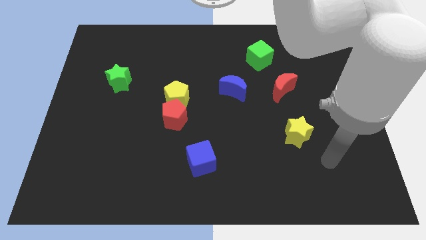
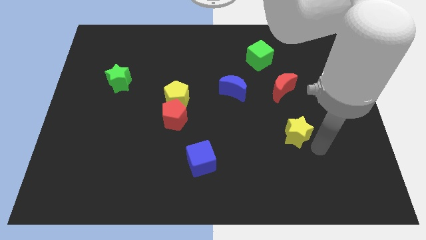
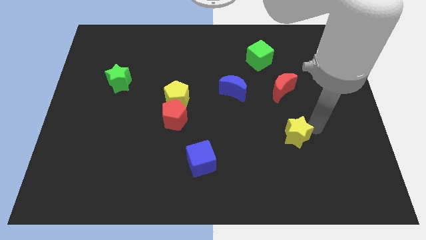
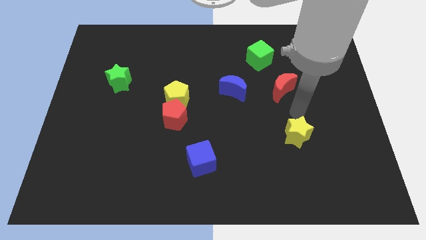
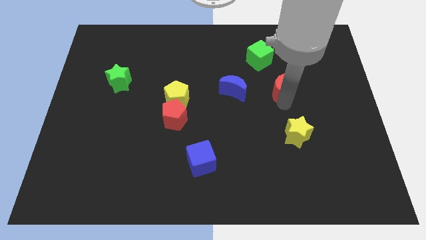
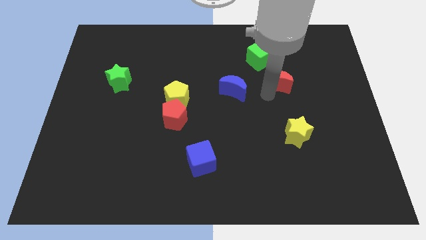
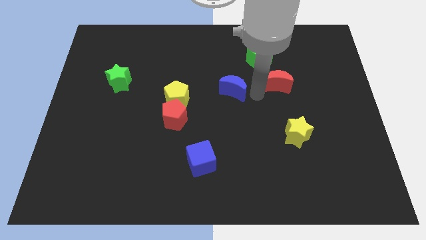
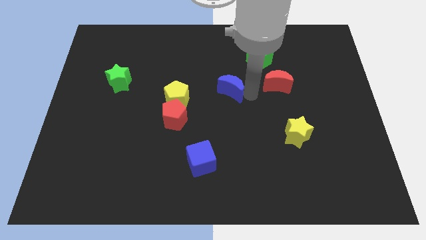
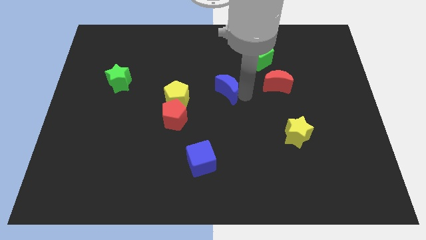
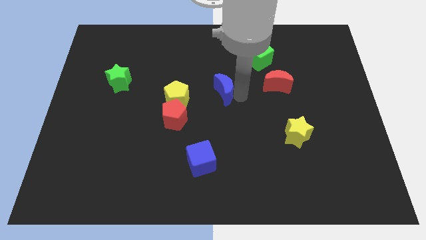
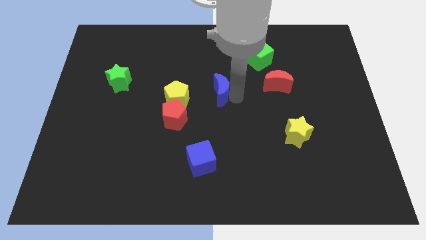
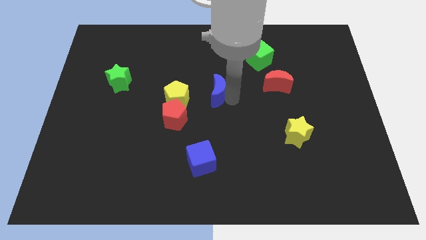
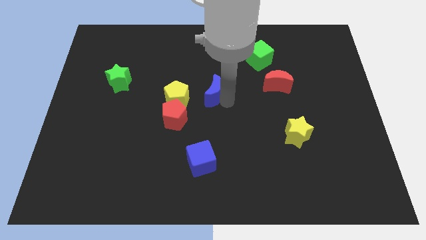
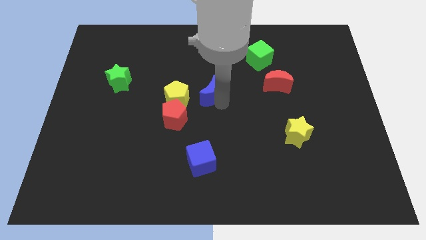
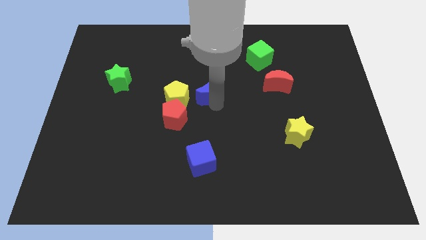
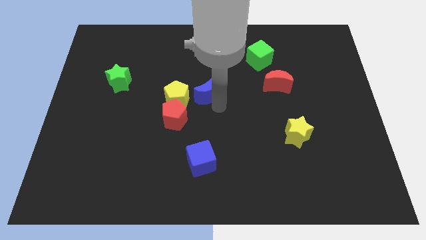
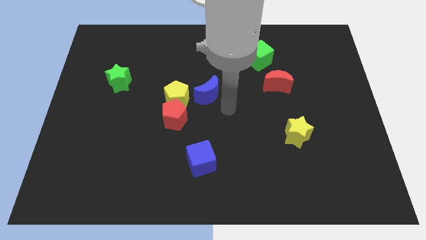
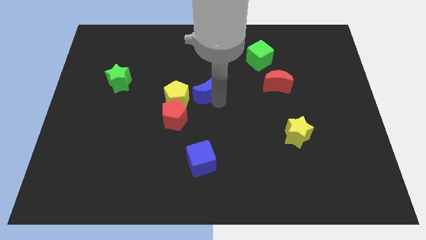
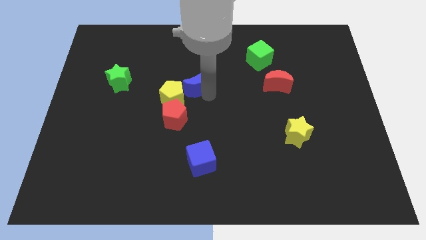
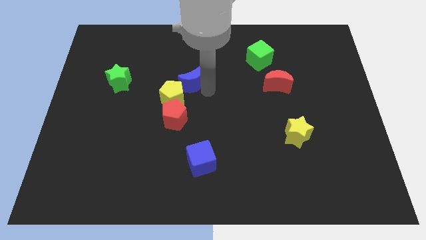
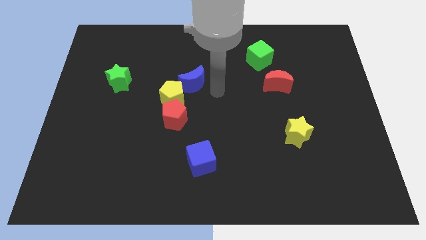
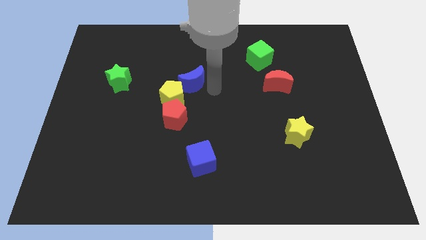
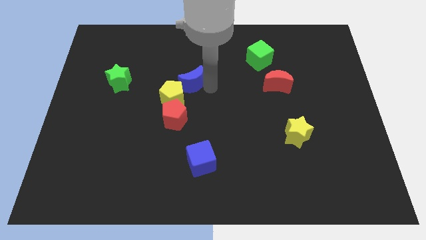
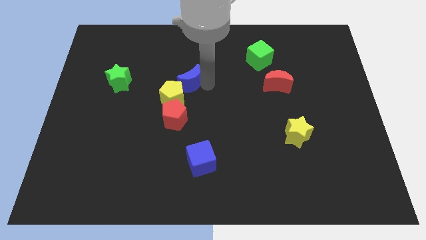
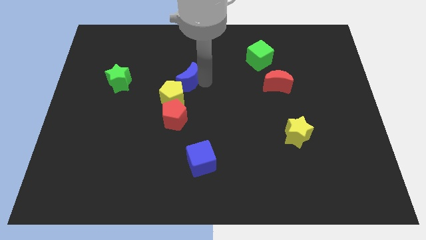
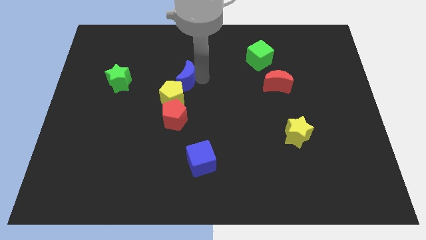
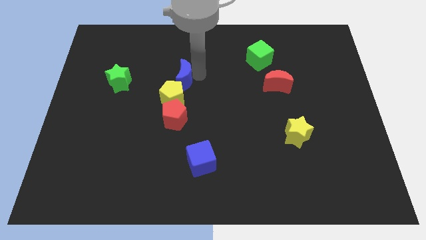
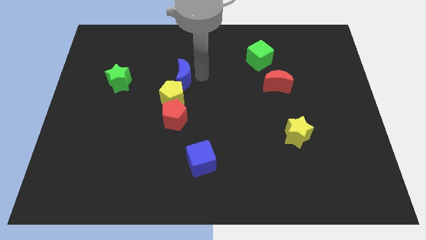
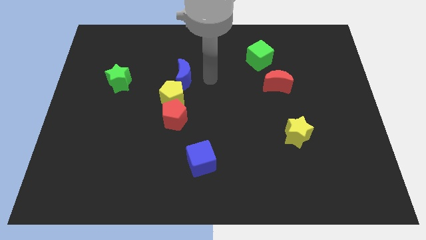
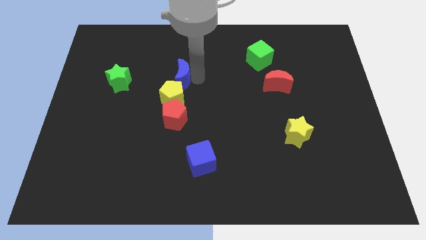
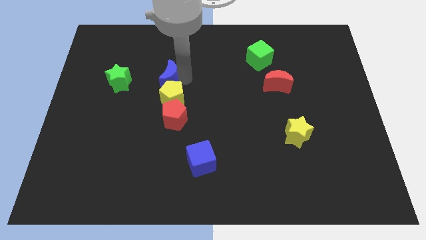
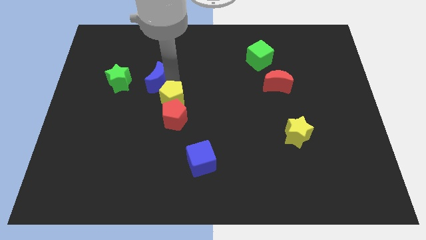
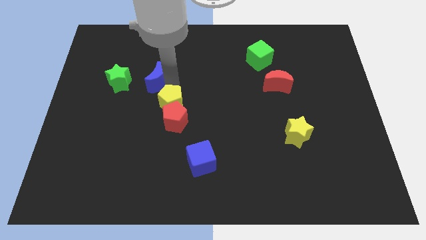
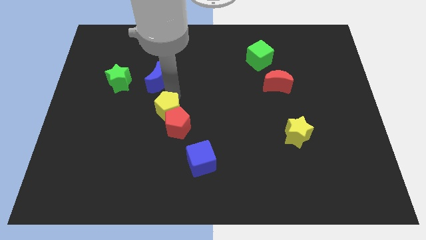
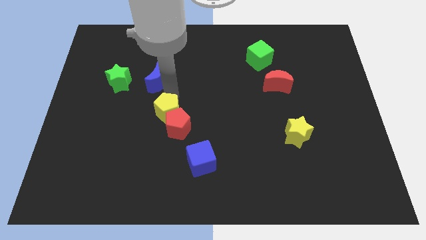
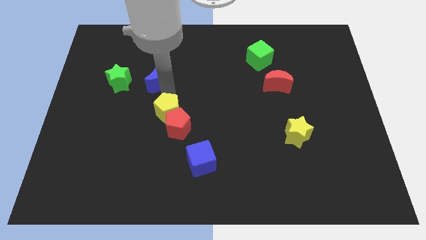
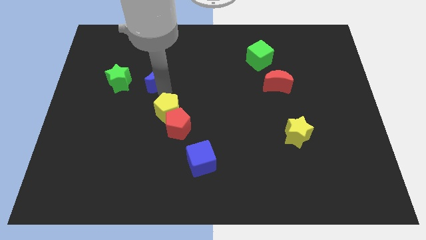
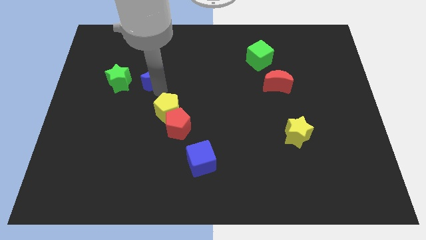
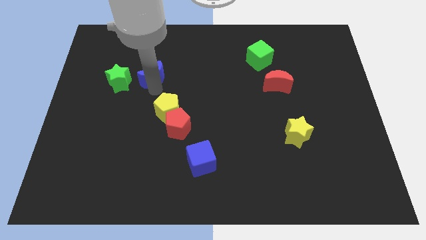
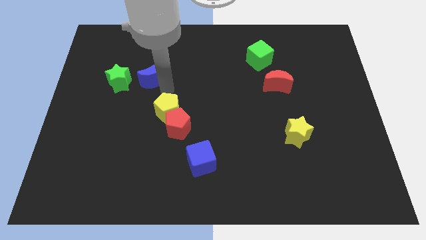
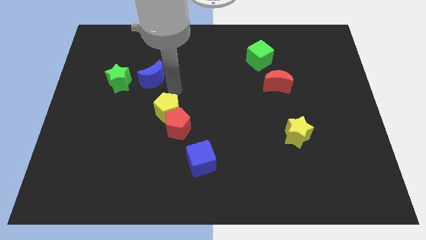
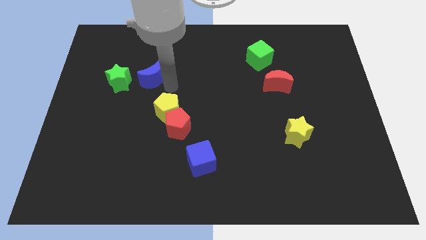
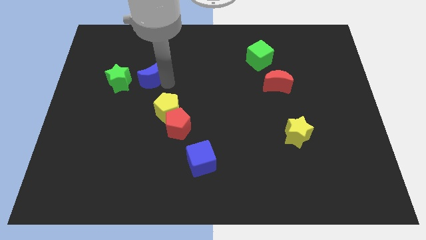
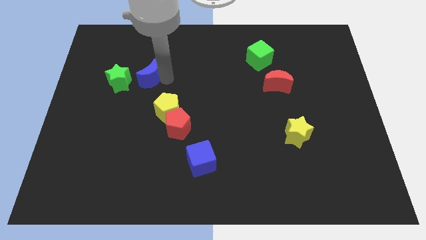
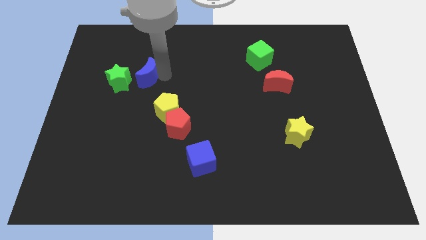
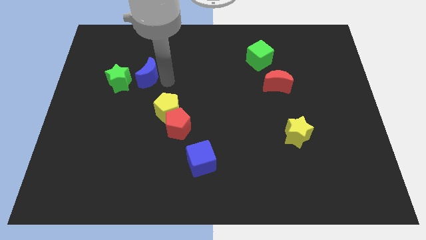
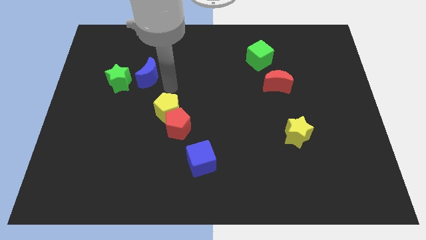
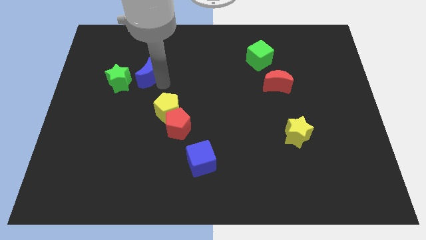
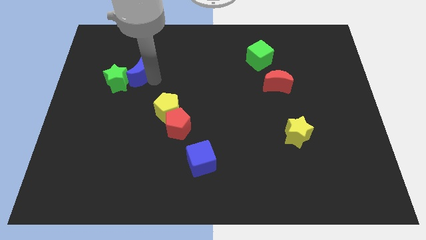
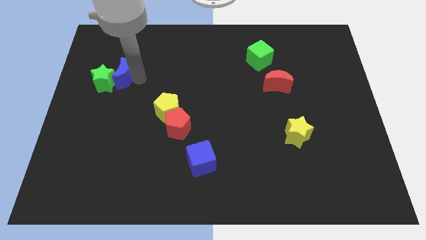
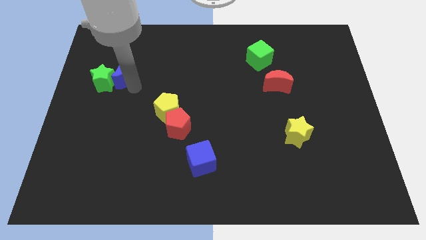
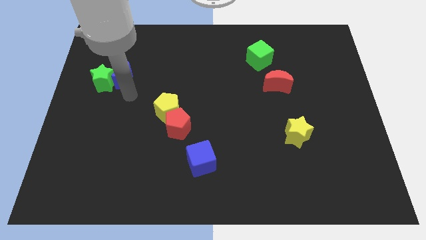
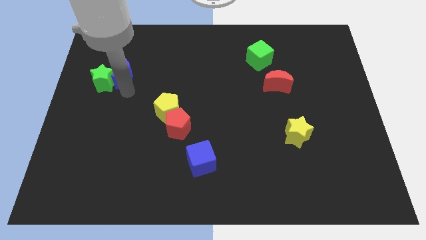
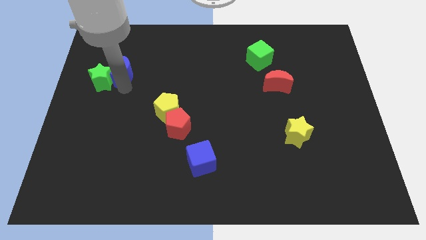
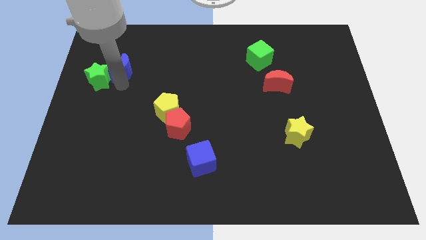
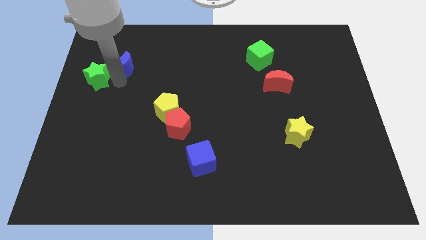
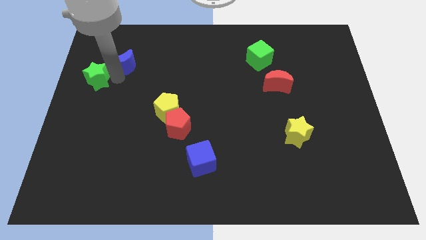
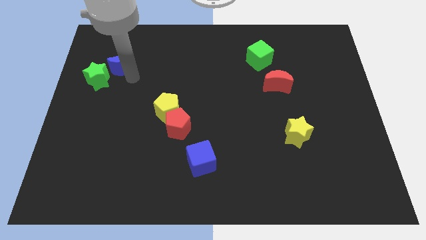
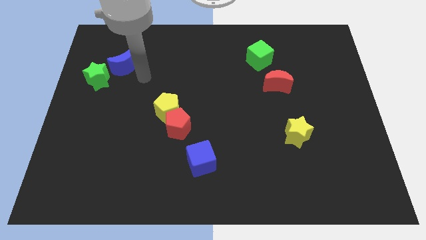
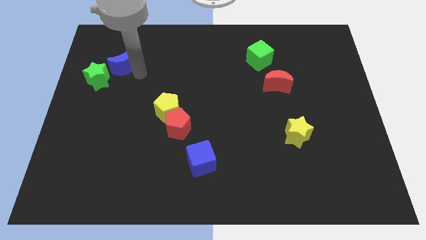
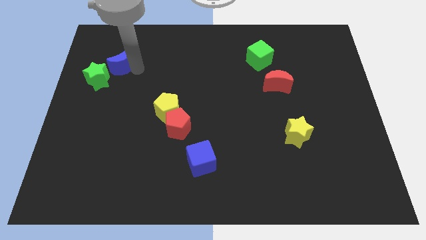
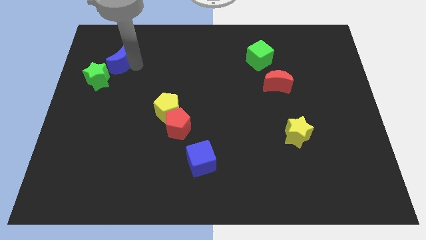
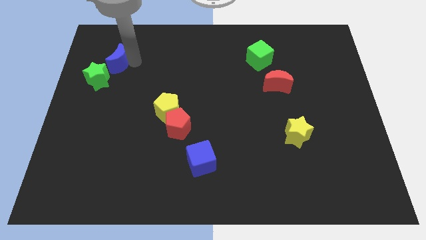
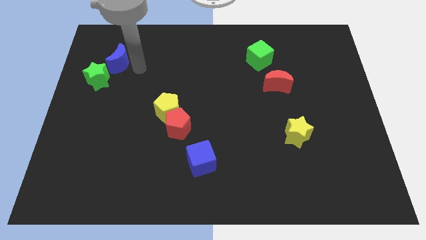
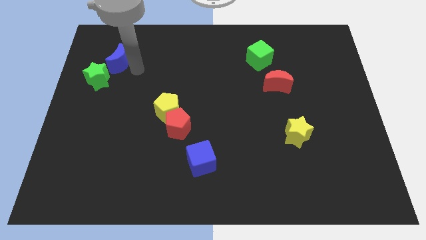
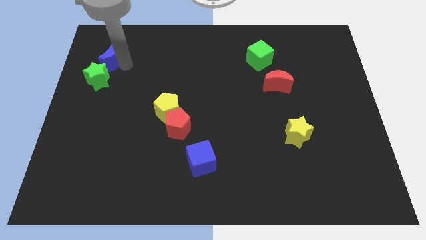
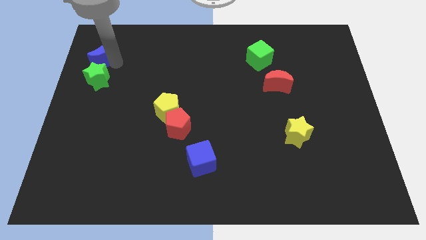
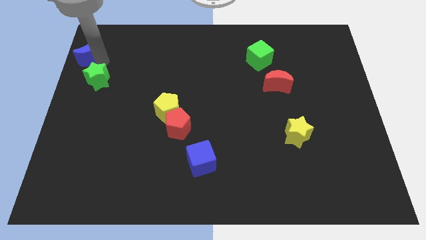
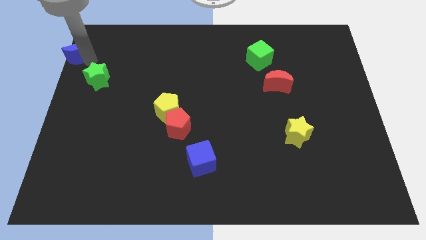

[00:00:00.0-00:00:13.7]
move the blue moon to the top left corner

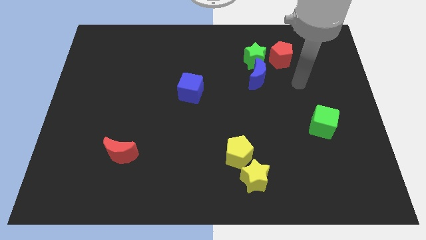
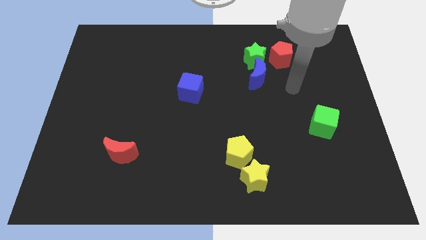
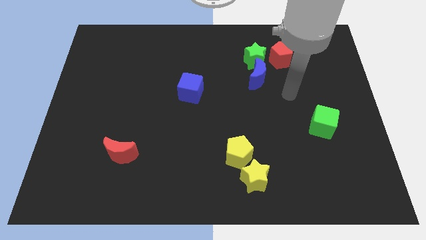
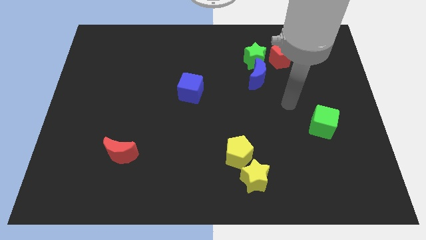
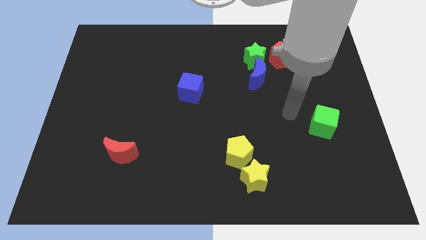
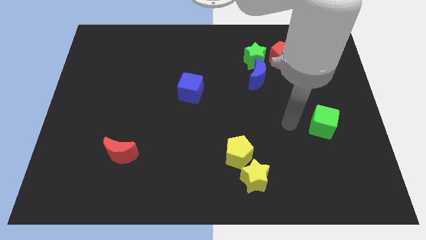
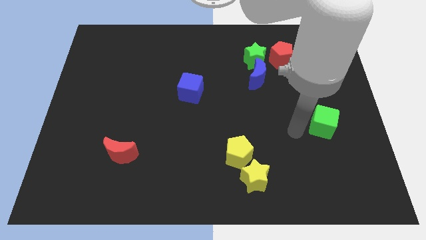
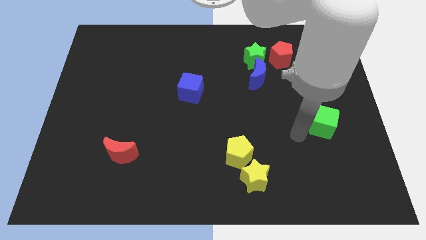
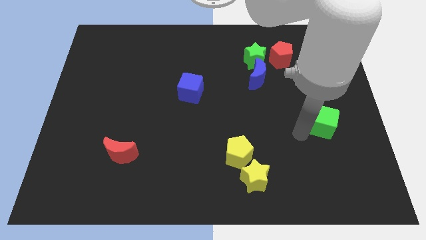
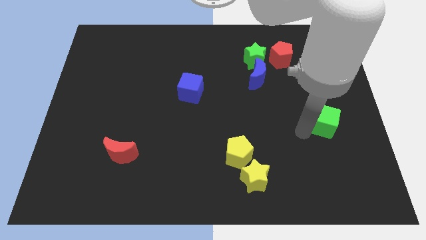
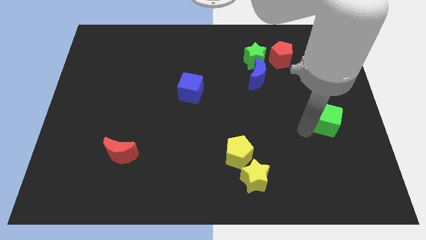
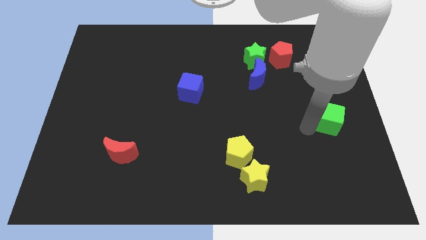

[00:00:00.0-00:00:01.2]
put the green cube to the right side
